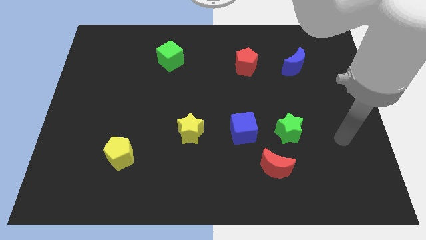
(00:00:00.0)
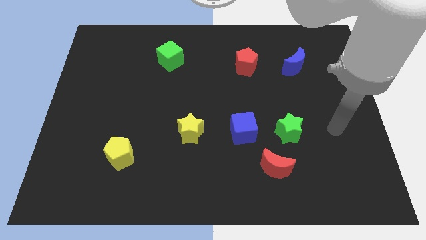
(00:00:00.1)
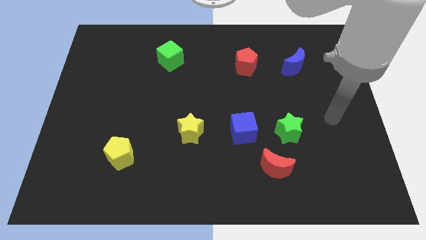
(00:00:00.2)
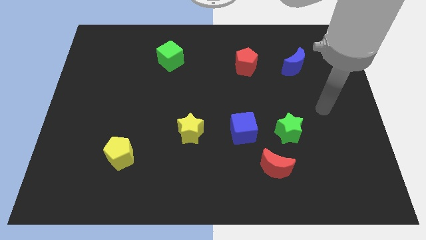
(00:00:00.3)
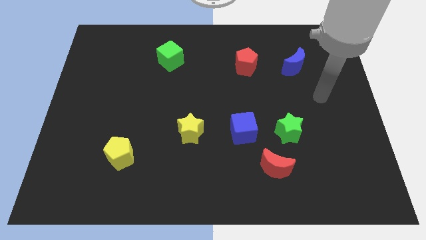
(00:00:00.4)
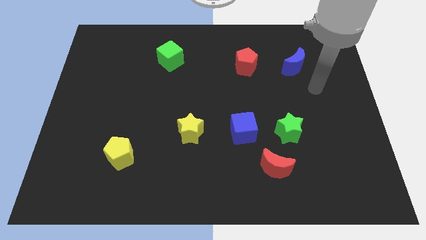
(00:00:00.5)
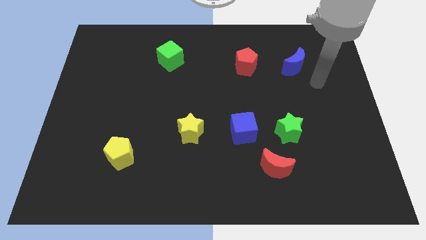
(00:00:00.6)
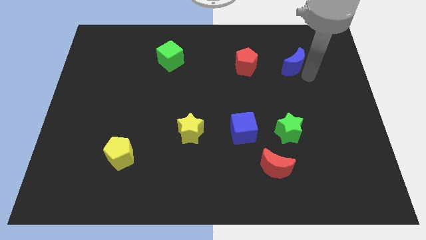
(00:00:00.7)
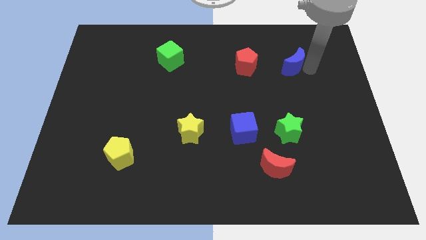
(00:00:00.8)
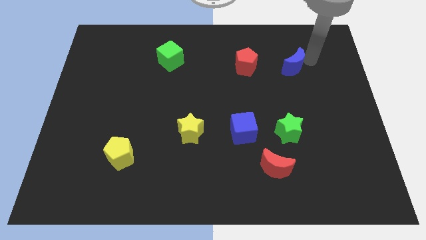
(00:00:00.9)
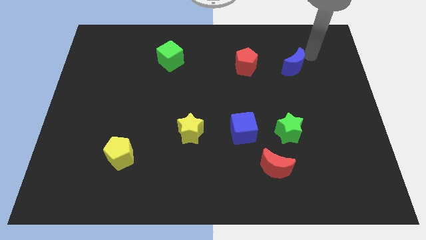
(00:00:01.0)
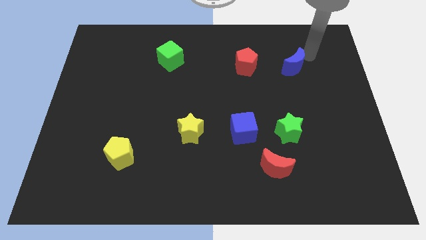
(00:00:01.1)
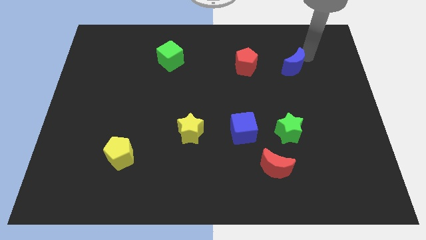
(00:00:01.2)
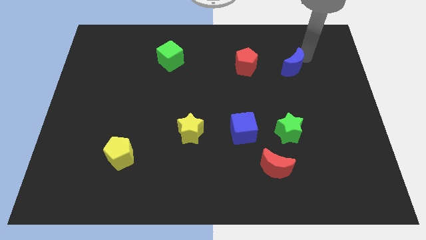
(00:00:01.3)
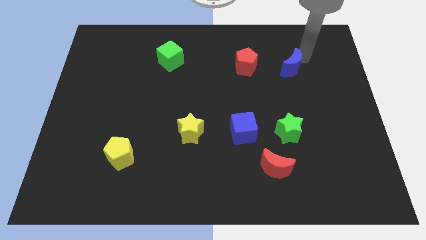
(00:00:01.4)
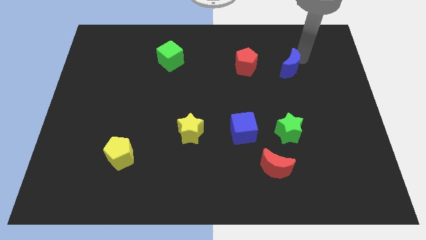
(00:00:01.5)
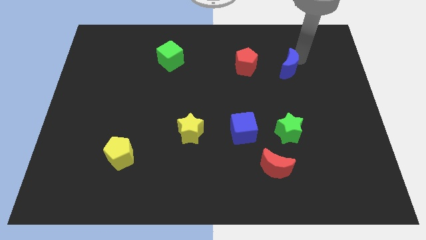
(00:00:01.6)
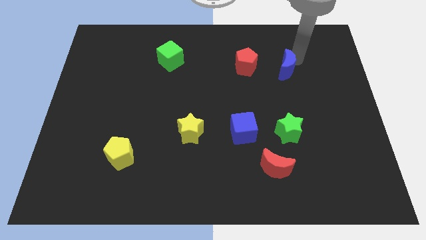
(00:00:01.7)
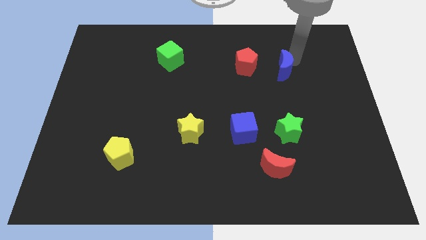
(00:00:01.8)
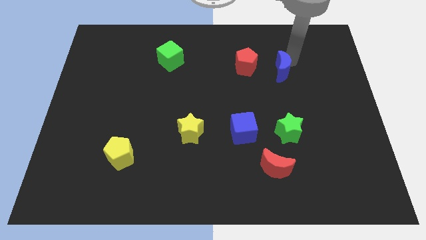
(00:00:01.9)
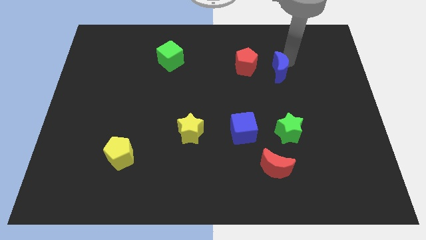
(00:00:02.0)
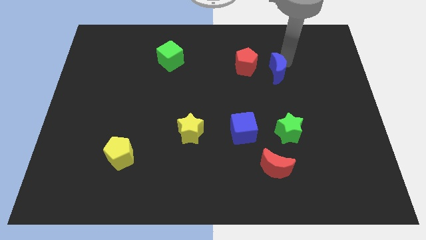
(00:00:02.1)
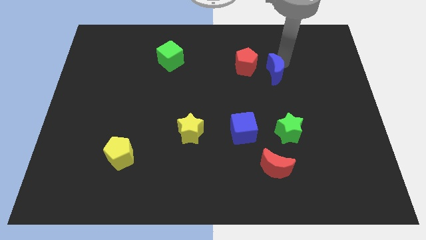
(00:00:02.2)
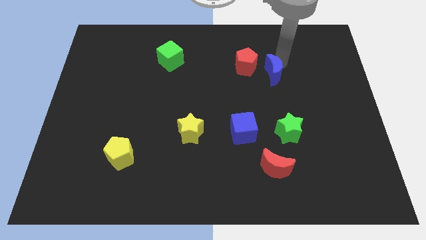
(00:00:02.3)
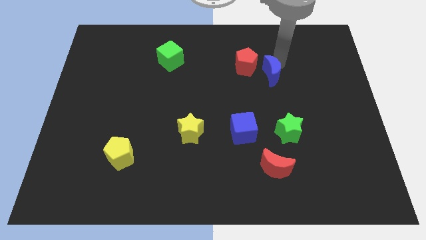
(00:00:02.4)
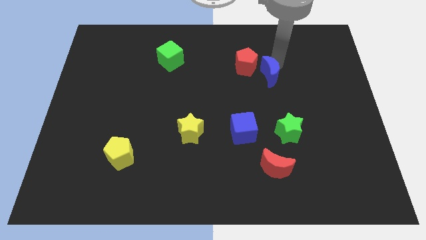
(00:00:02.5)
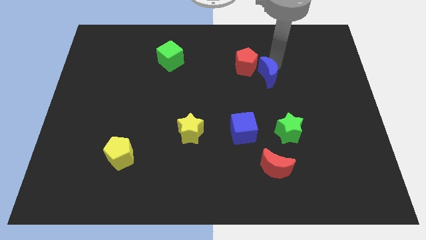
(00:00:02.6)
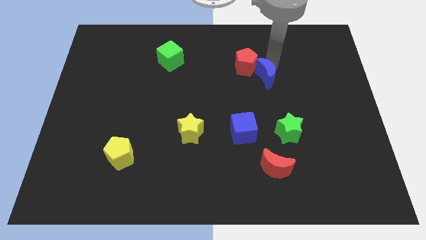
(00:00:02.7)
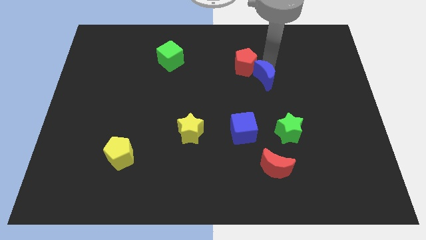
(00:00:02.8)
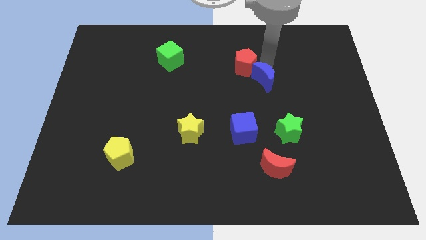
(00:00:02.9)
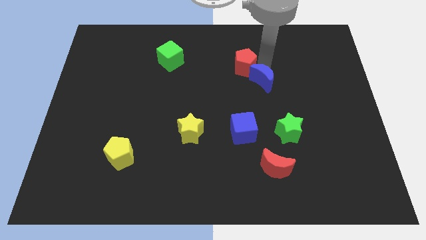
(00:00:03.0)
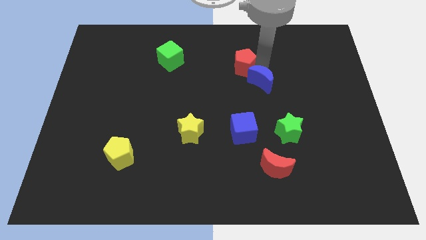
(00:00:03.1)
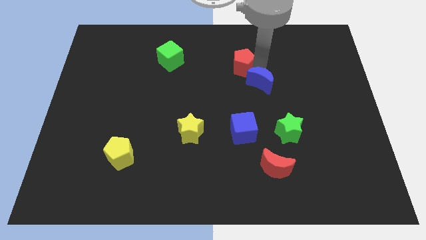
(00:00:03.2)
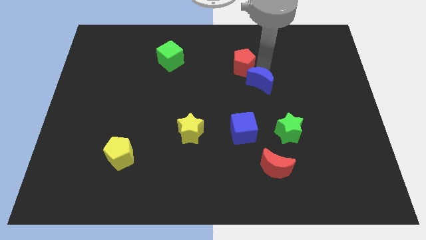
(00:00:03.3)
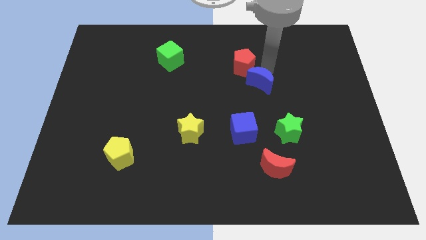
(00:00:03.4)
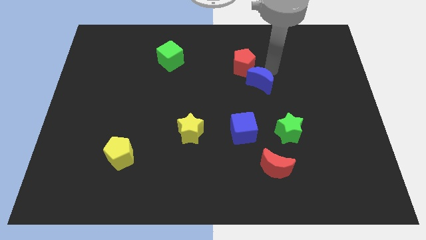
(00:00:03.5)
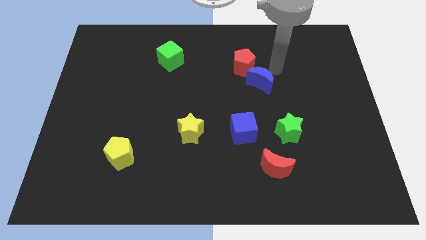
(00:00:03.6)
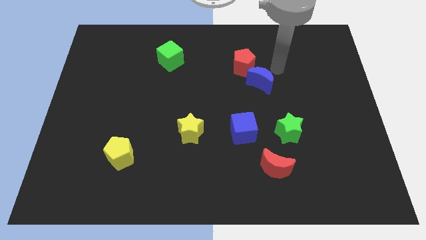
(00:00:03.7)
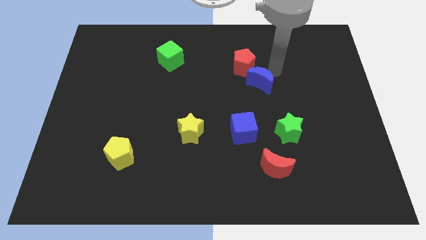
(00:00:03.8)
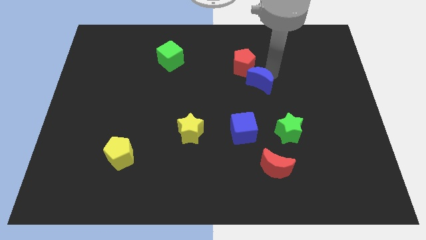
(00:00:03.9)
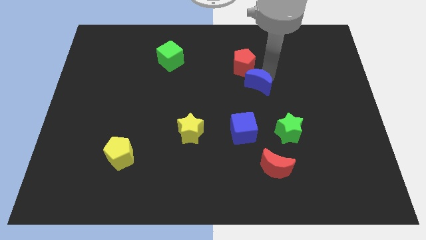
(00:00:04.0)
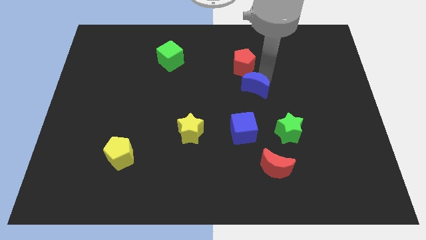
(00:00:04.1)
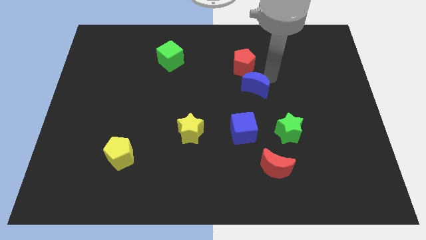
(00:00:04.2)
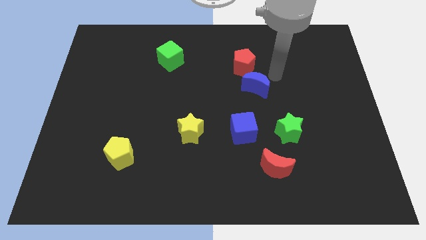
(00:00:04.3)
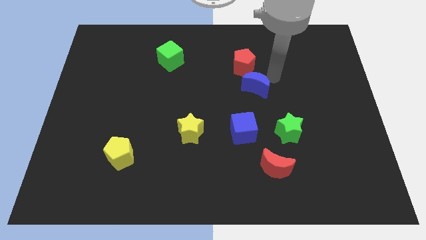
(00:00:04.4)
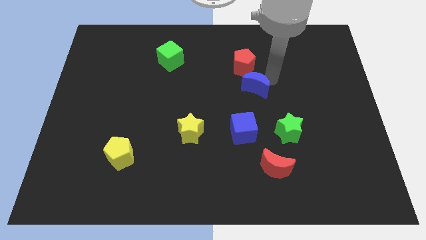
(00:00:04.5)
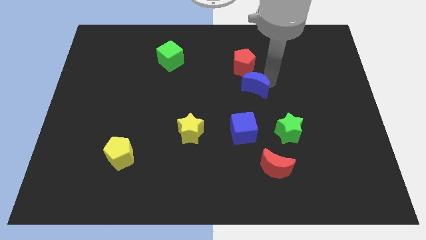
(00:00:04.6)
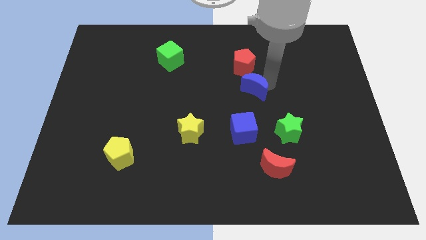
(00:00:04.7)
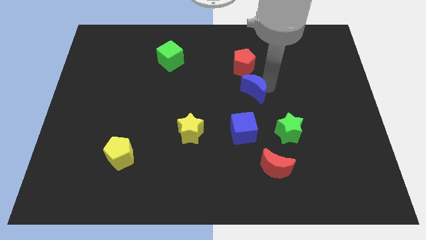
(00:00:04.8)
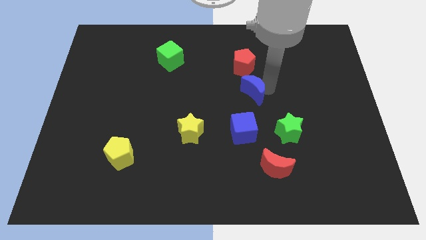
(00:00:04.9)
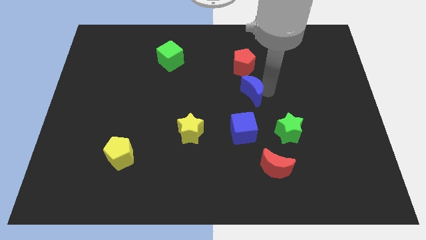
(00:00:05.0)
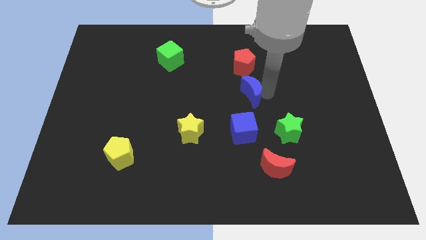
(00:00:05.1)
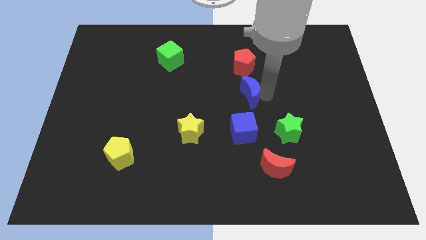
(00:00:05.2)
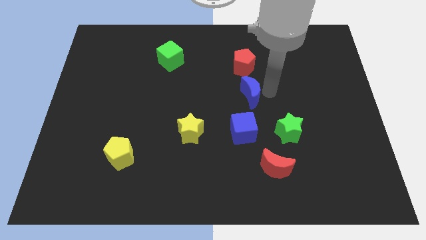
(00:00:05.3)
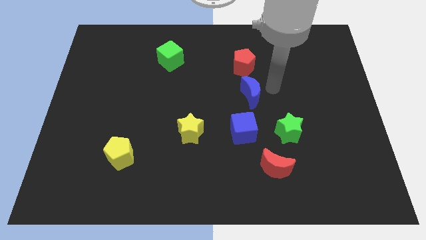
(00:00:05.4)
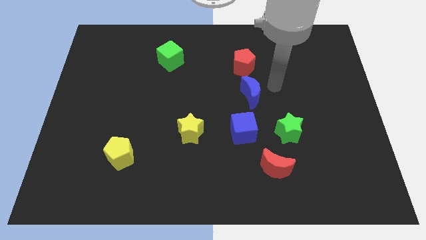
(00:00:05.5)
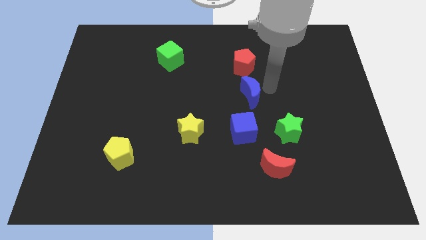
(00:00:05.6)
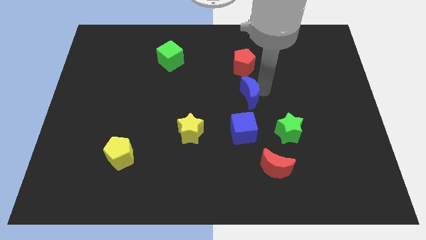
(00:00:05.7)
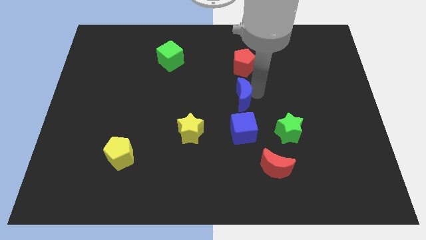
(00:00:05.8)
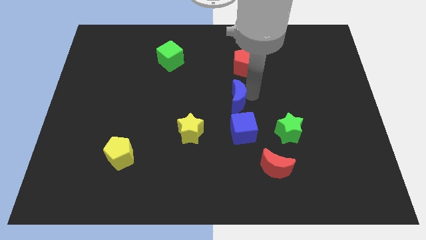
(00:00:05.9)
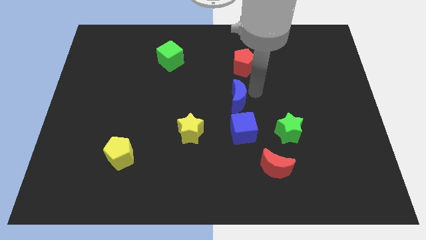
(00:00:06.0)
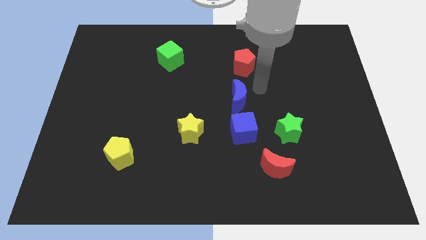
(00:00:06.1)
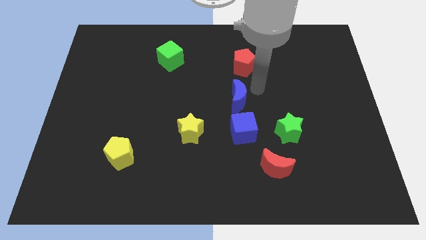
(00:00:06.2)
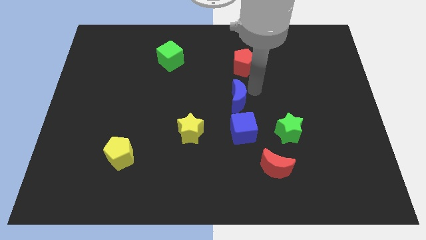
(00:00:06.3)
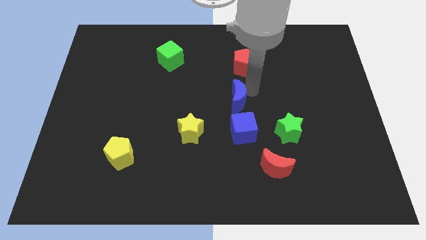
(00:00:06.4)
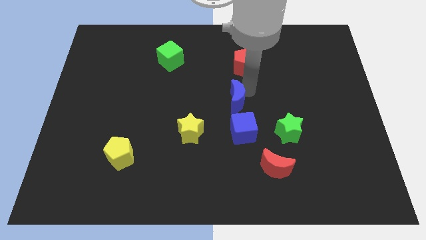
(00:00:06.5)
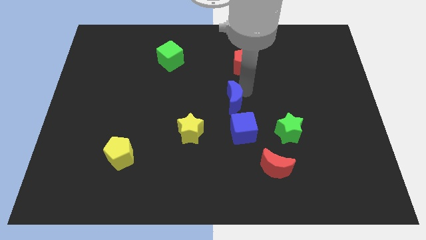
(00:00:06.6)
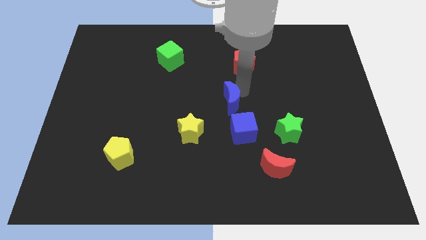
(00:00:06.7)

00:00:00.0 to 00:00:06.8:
push the blue moon to the top right of the yellow star
